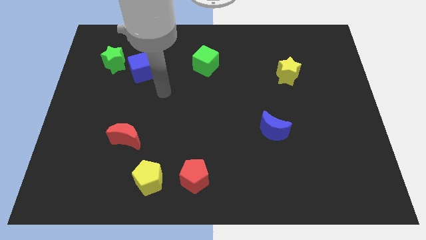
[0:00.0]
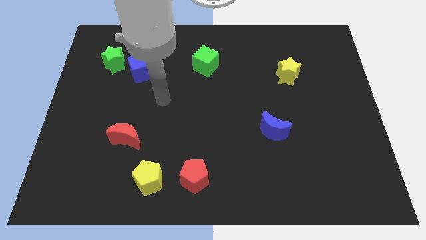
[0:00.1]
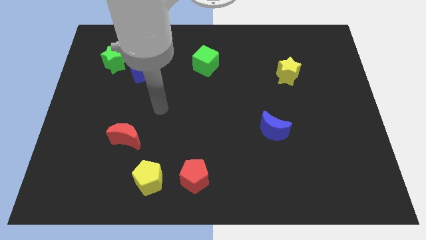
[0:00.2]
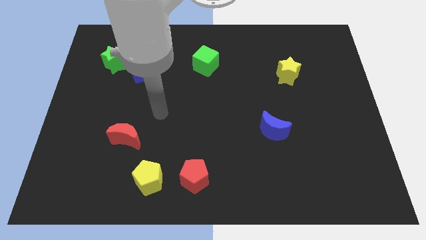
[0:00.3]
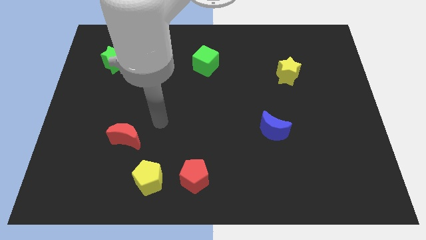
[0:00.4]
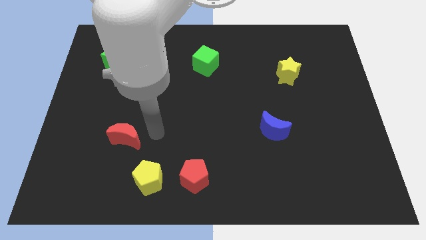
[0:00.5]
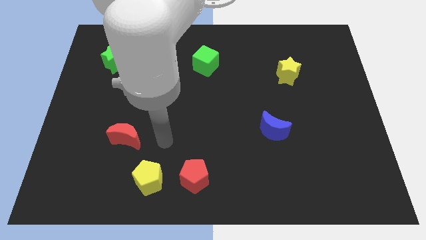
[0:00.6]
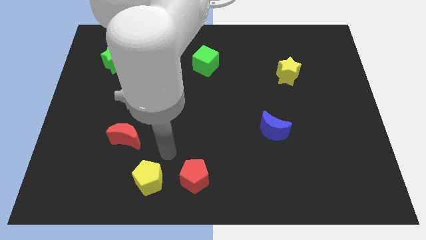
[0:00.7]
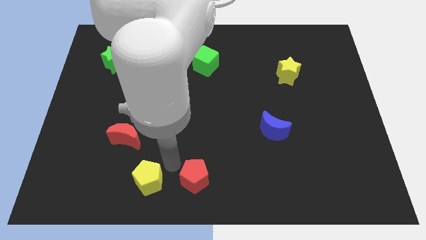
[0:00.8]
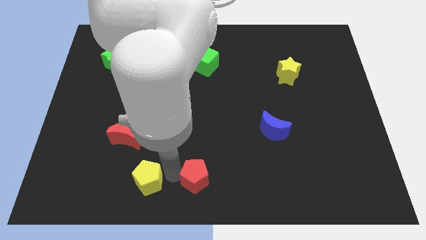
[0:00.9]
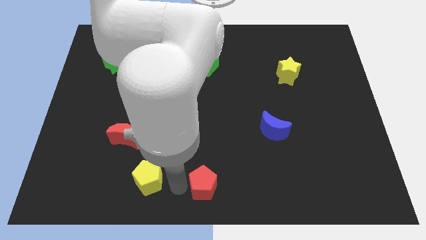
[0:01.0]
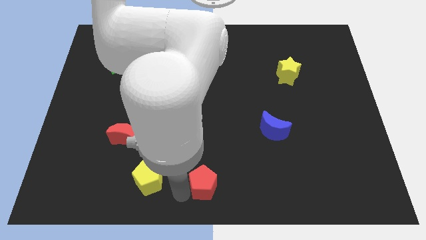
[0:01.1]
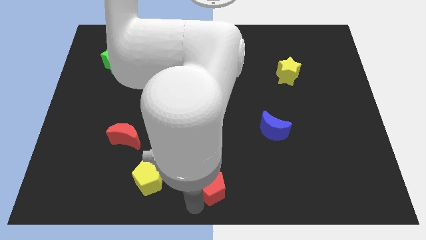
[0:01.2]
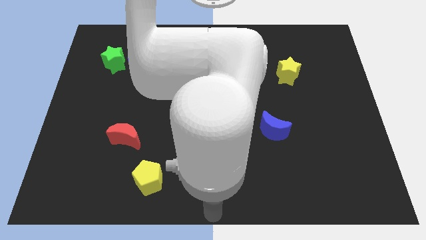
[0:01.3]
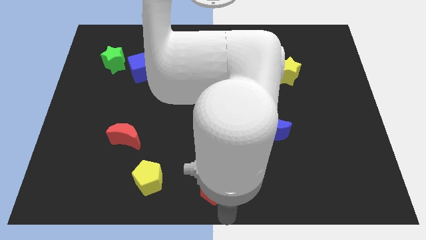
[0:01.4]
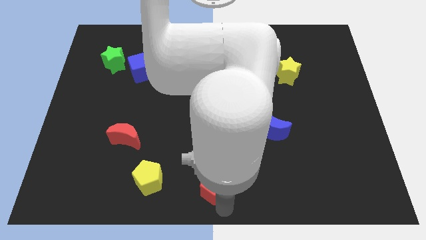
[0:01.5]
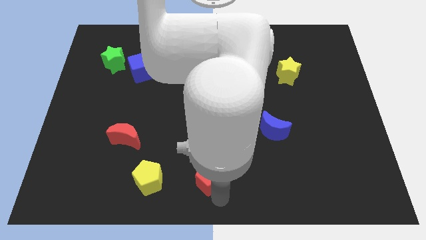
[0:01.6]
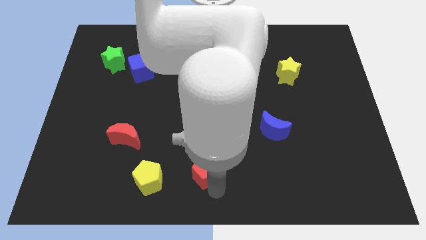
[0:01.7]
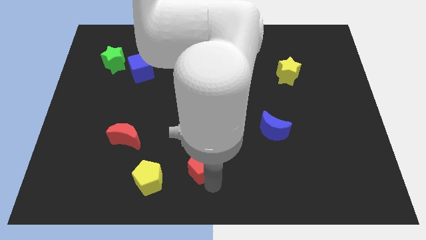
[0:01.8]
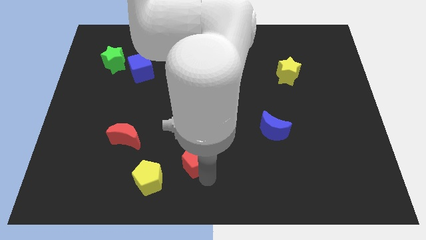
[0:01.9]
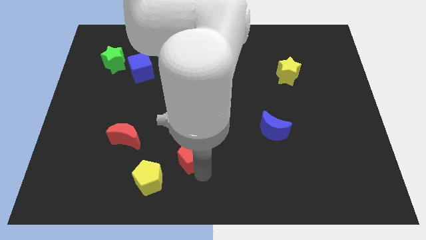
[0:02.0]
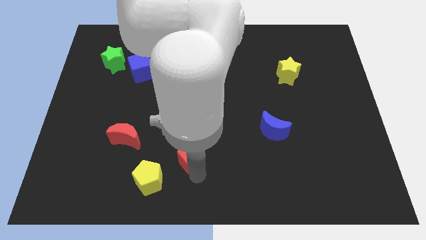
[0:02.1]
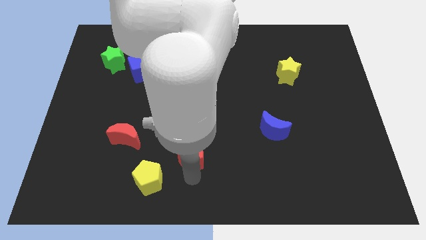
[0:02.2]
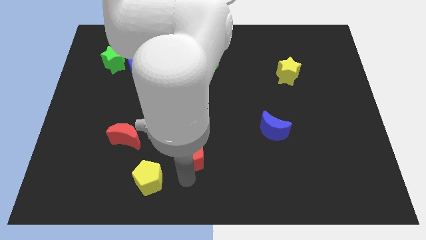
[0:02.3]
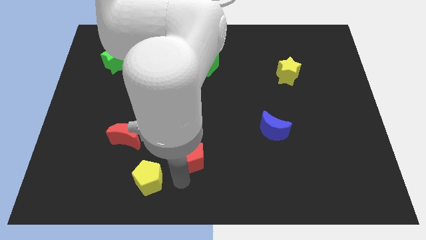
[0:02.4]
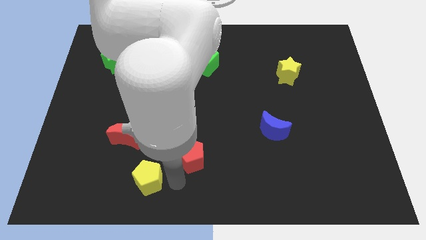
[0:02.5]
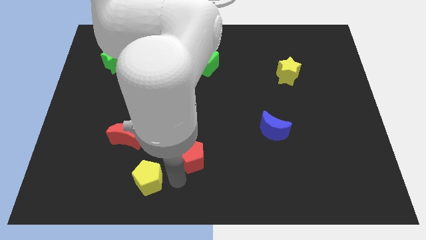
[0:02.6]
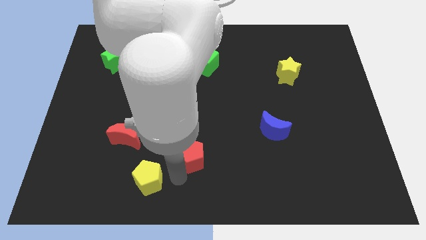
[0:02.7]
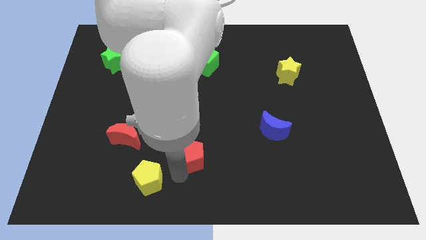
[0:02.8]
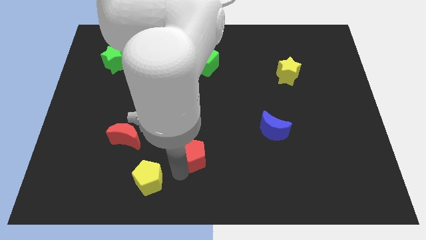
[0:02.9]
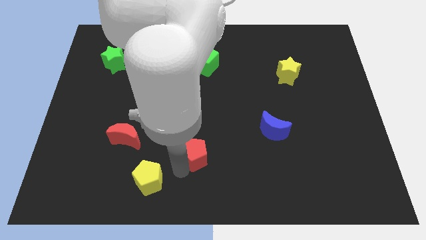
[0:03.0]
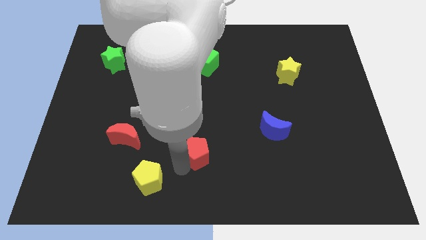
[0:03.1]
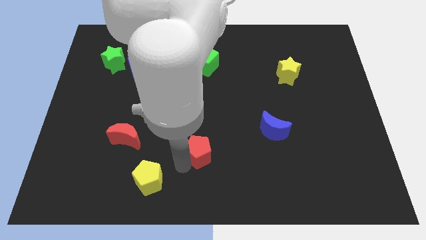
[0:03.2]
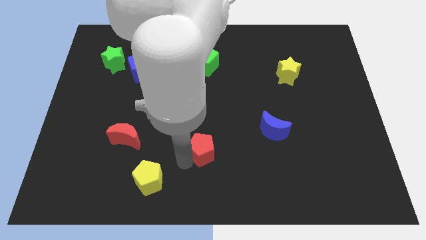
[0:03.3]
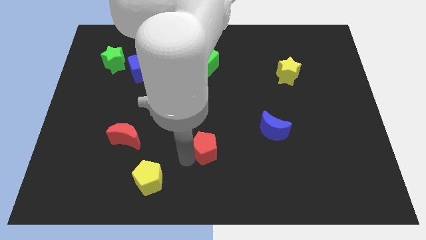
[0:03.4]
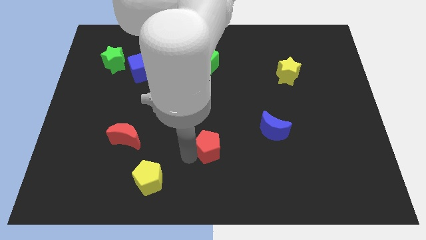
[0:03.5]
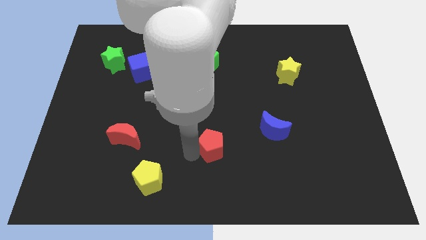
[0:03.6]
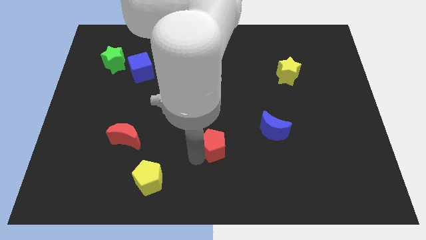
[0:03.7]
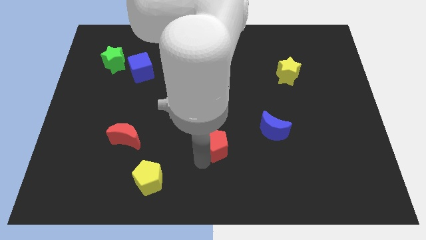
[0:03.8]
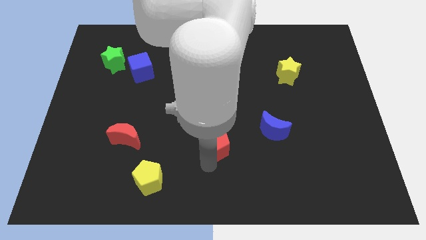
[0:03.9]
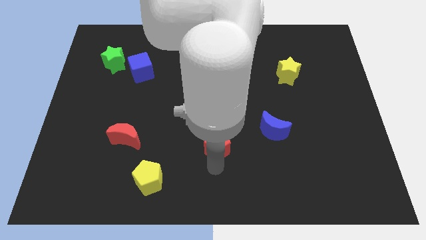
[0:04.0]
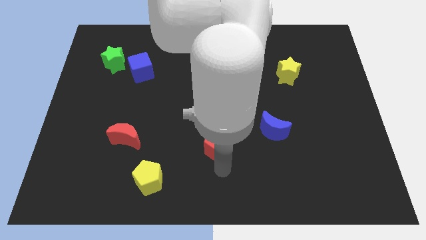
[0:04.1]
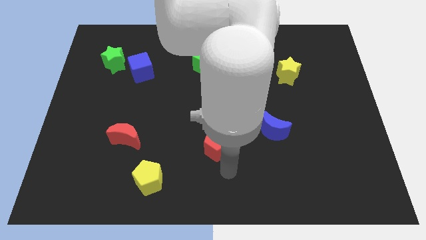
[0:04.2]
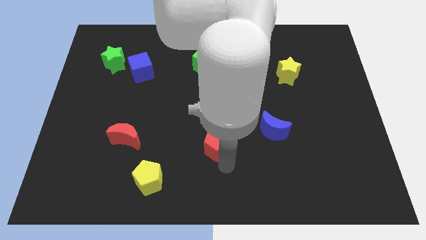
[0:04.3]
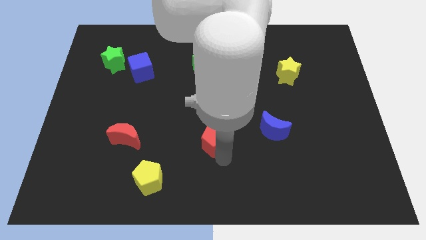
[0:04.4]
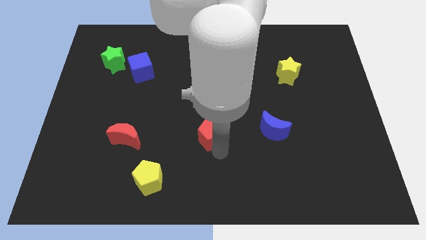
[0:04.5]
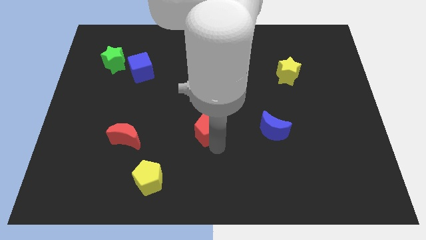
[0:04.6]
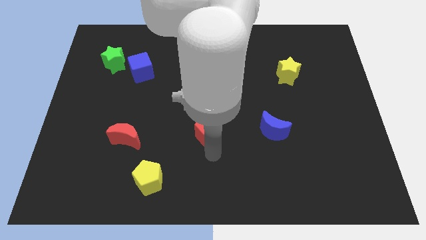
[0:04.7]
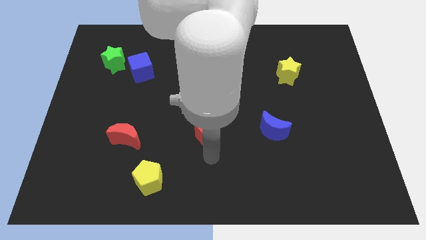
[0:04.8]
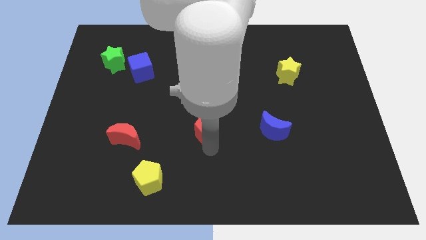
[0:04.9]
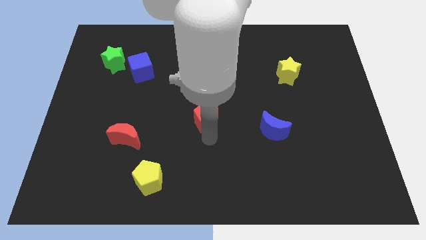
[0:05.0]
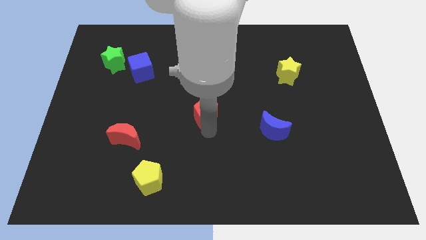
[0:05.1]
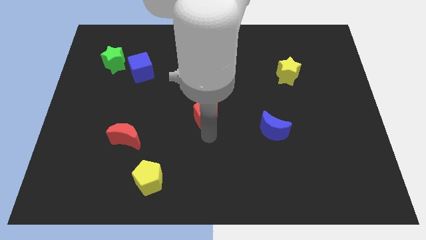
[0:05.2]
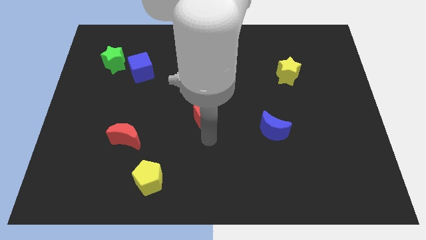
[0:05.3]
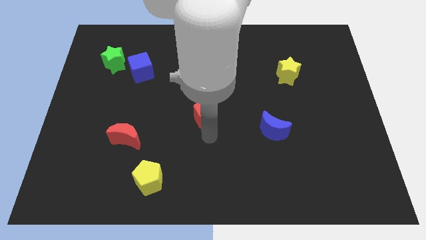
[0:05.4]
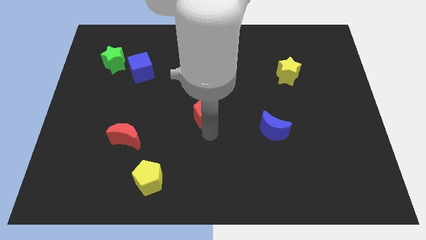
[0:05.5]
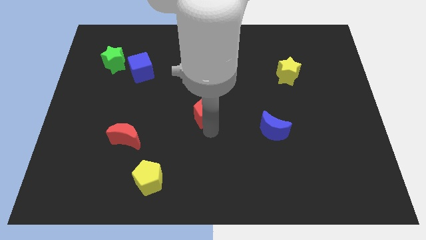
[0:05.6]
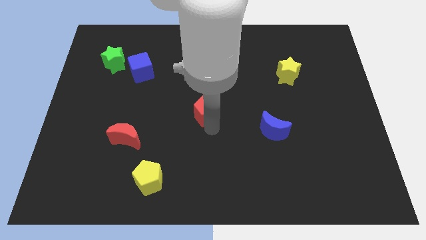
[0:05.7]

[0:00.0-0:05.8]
put the red pentagon to the bottom of the green cube
